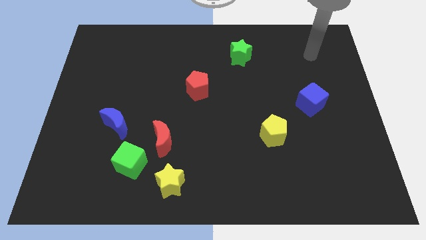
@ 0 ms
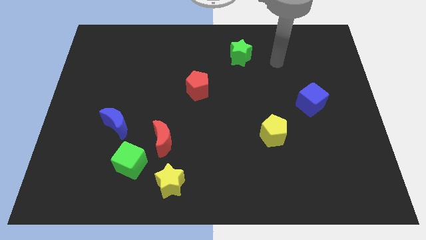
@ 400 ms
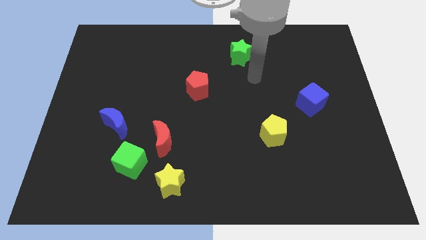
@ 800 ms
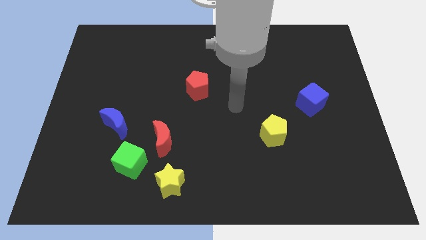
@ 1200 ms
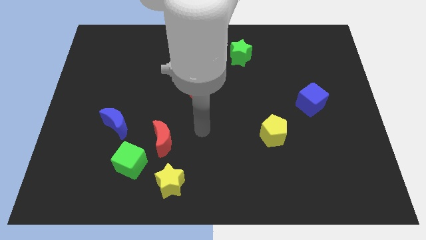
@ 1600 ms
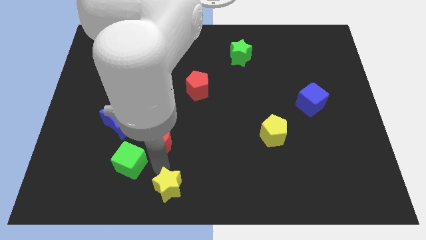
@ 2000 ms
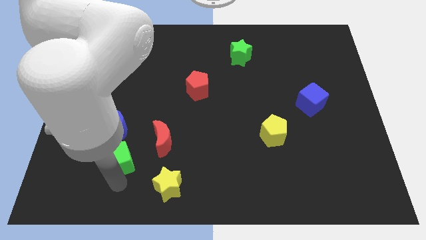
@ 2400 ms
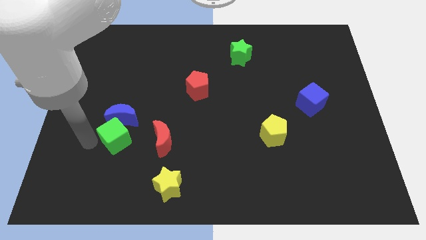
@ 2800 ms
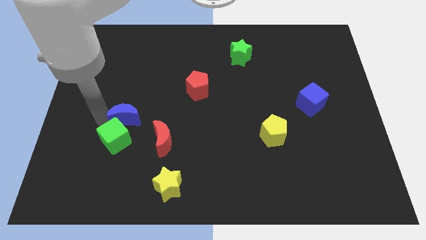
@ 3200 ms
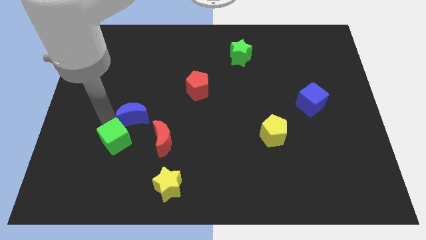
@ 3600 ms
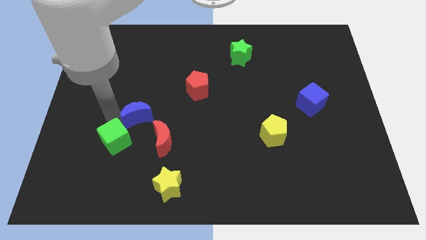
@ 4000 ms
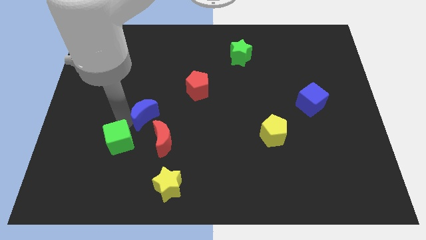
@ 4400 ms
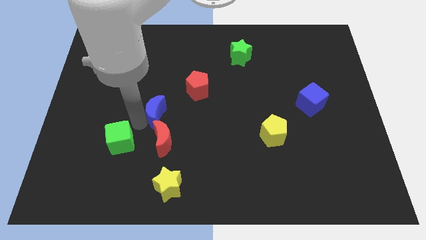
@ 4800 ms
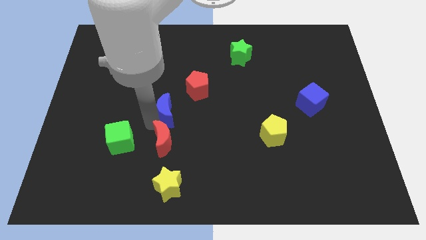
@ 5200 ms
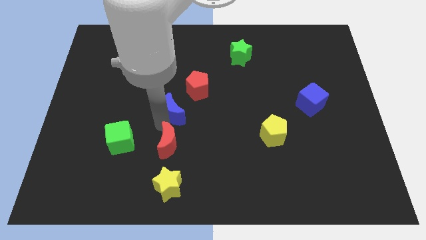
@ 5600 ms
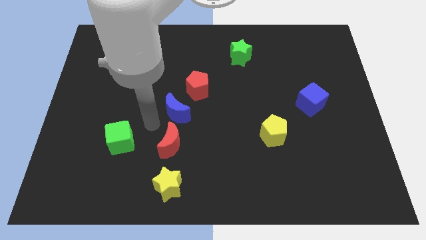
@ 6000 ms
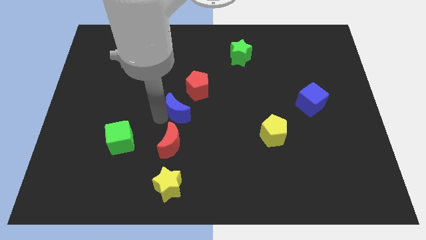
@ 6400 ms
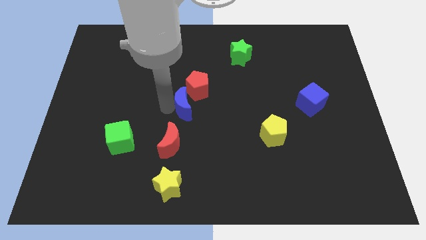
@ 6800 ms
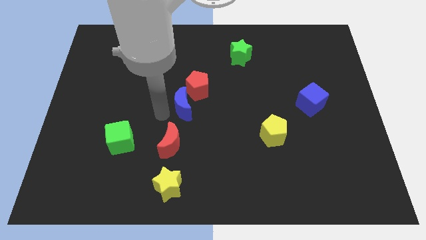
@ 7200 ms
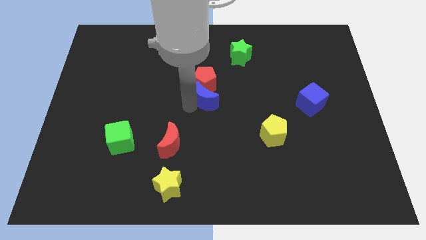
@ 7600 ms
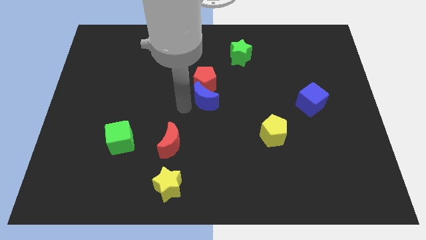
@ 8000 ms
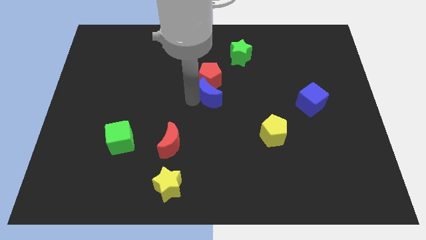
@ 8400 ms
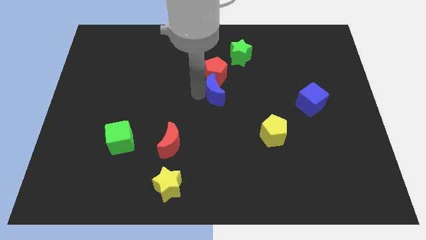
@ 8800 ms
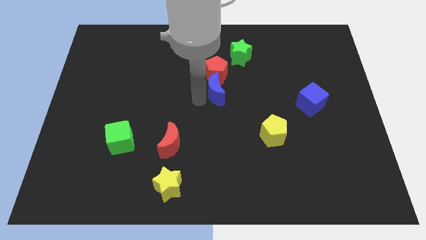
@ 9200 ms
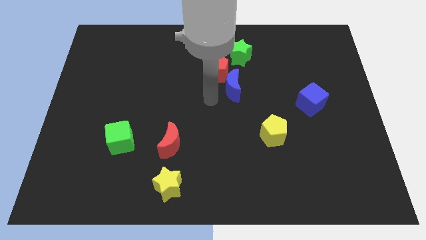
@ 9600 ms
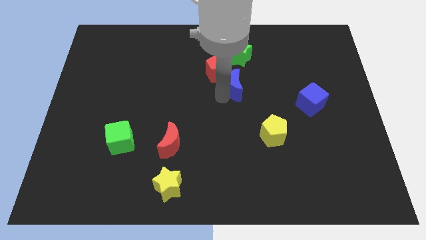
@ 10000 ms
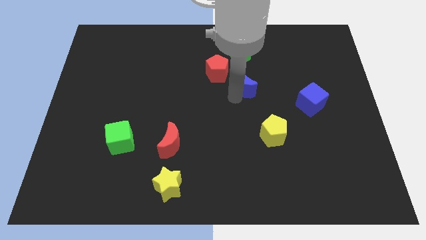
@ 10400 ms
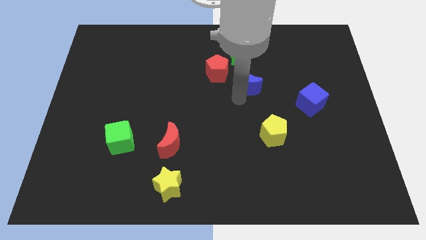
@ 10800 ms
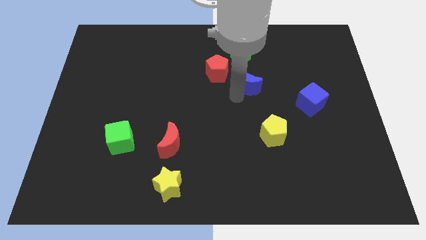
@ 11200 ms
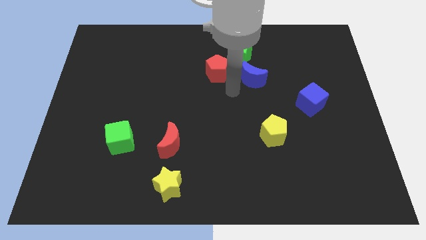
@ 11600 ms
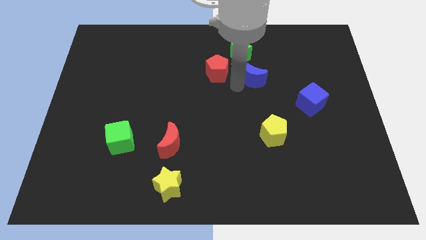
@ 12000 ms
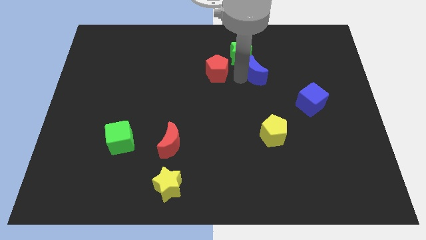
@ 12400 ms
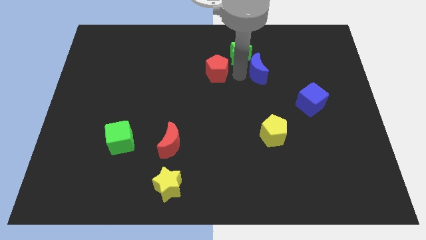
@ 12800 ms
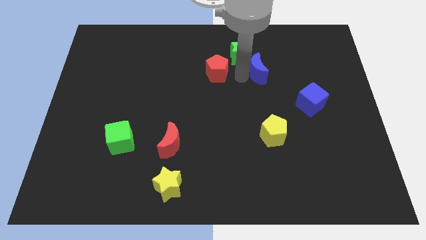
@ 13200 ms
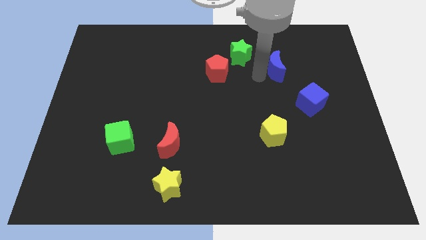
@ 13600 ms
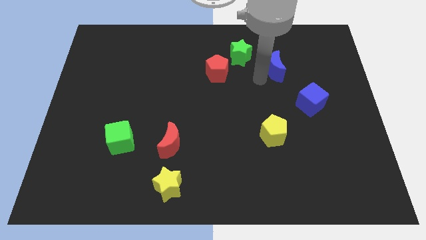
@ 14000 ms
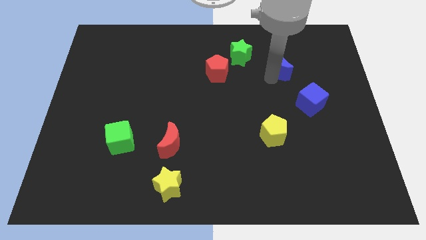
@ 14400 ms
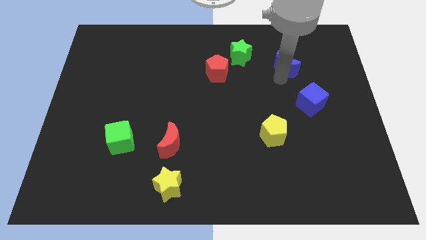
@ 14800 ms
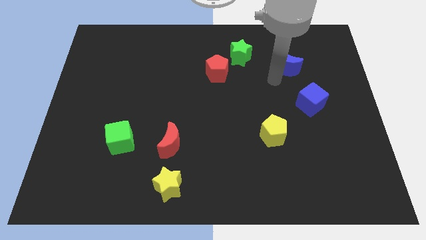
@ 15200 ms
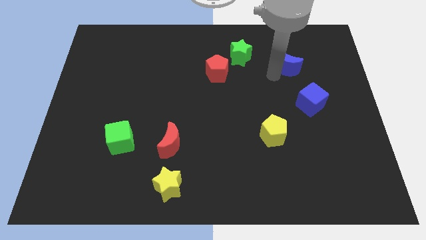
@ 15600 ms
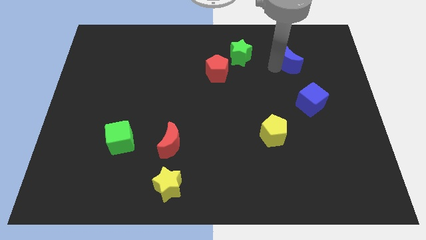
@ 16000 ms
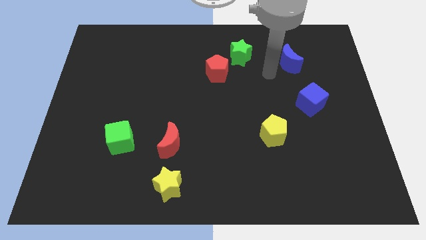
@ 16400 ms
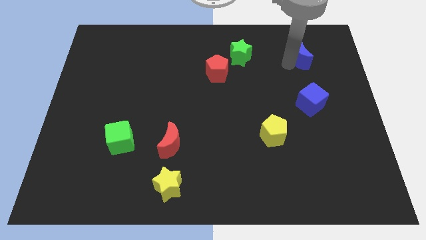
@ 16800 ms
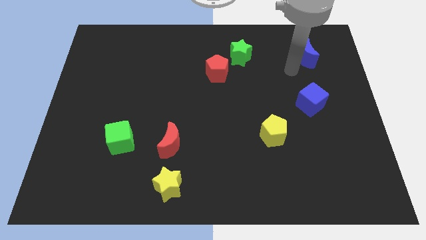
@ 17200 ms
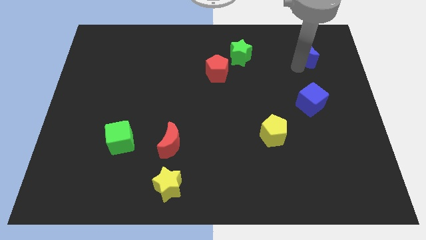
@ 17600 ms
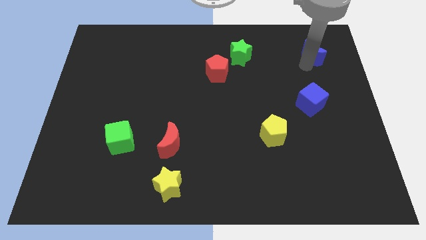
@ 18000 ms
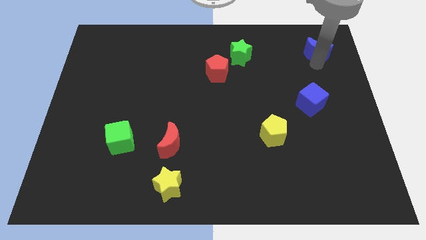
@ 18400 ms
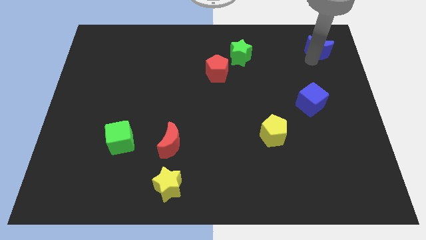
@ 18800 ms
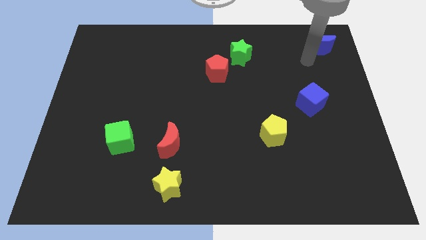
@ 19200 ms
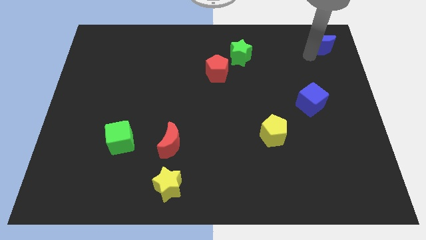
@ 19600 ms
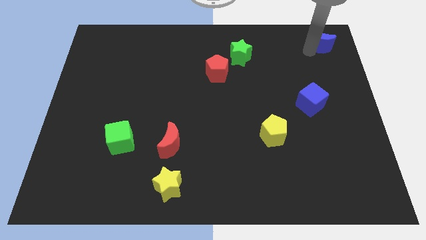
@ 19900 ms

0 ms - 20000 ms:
push the blue moon to the top right of the board

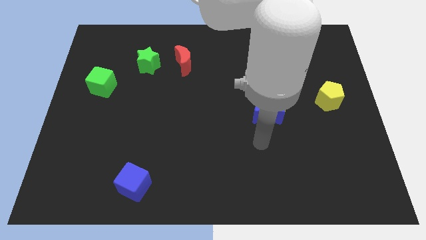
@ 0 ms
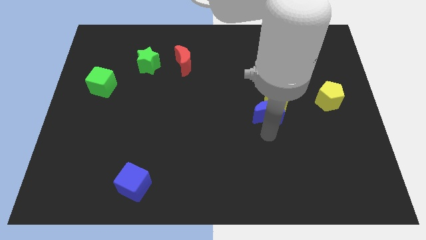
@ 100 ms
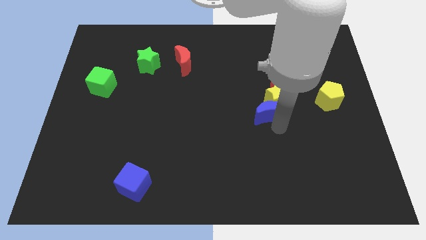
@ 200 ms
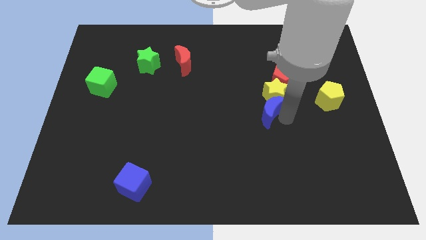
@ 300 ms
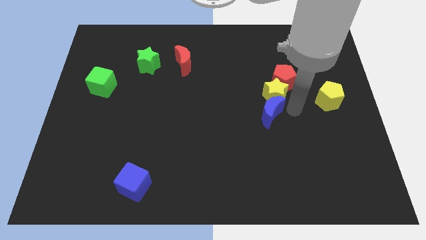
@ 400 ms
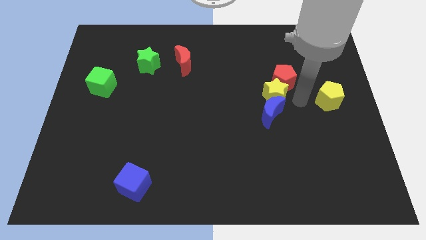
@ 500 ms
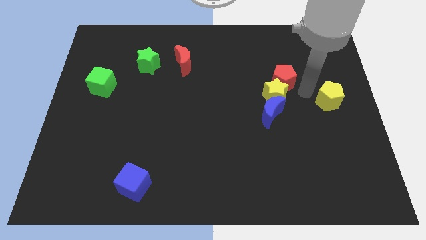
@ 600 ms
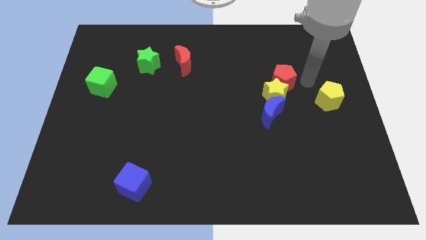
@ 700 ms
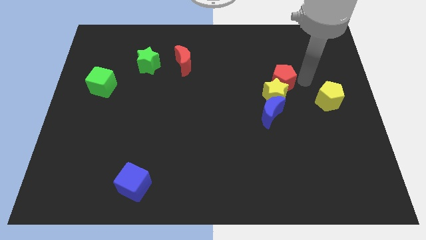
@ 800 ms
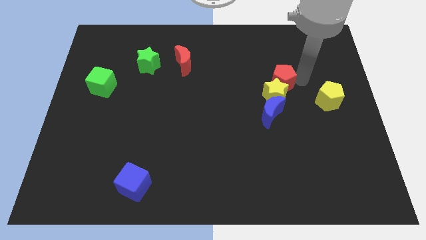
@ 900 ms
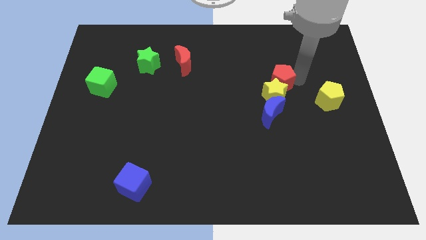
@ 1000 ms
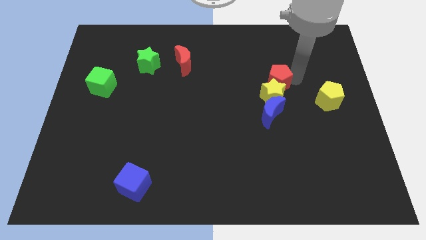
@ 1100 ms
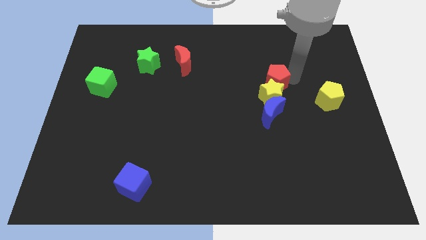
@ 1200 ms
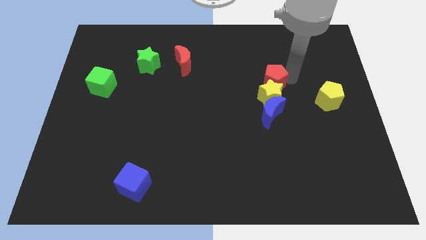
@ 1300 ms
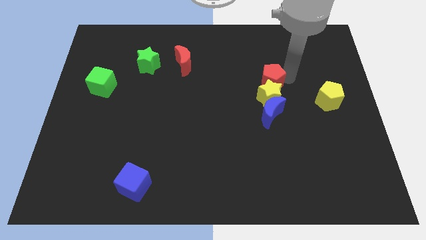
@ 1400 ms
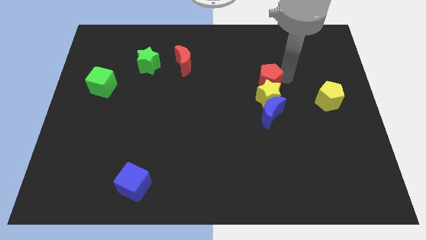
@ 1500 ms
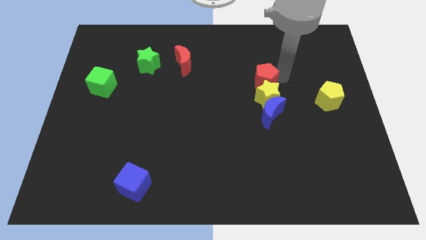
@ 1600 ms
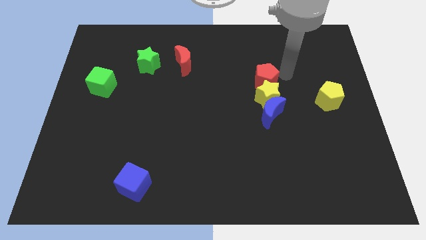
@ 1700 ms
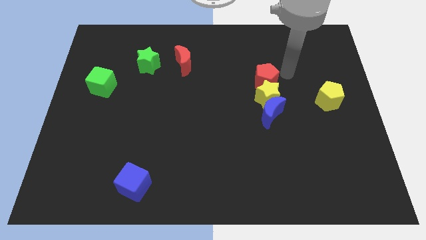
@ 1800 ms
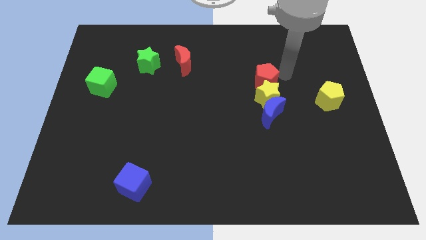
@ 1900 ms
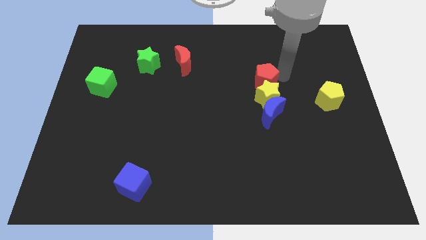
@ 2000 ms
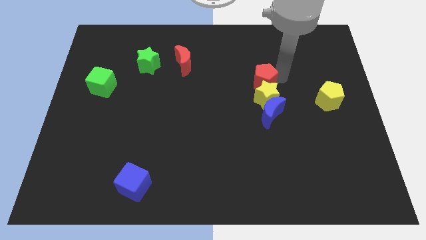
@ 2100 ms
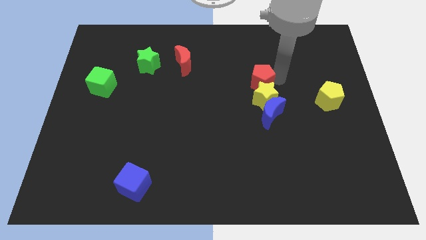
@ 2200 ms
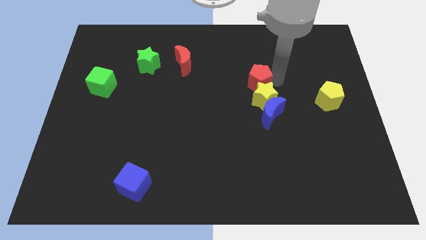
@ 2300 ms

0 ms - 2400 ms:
move the red pentagon to the middle
